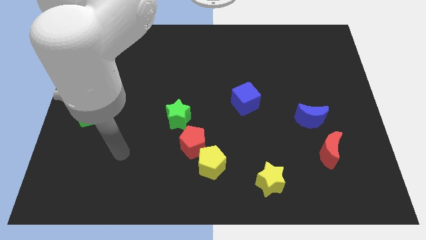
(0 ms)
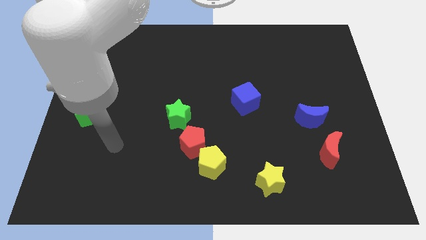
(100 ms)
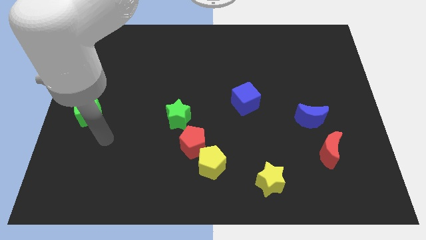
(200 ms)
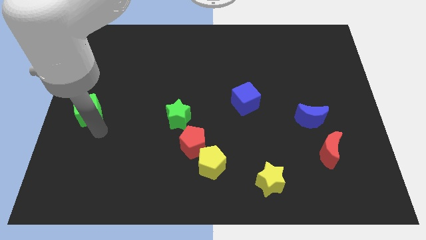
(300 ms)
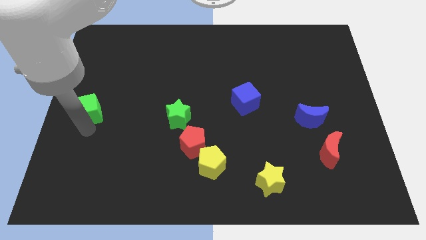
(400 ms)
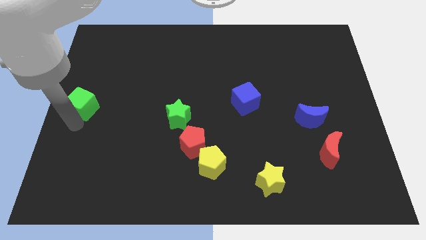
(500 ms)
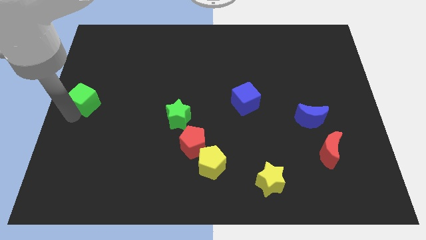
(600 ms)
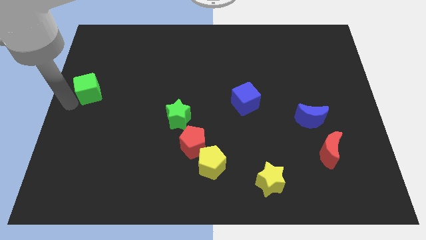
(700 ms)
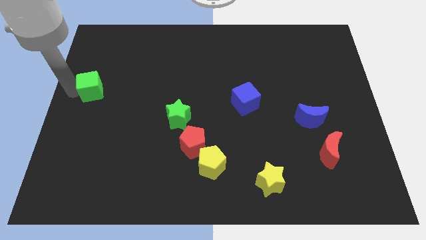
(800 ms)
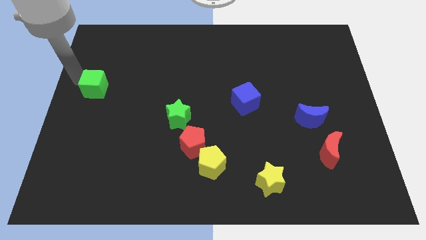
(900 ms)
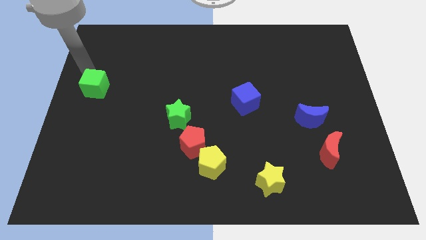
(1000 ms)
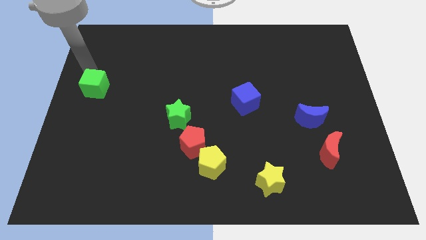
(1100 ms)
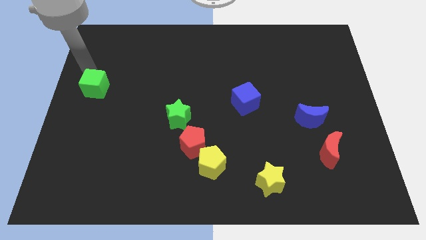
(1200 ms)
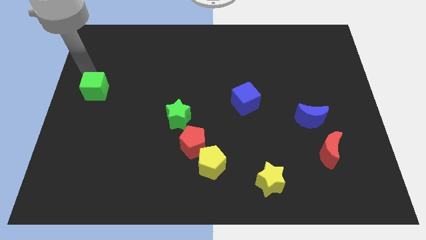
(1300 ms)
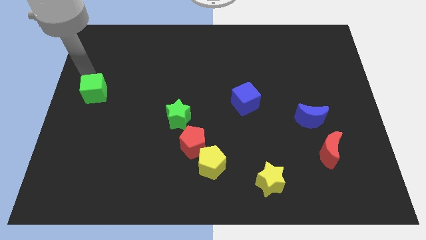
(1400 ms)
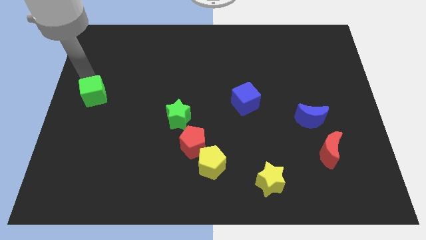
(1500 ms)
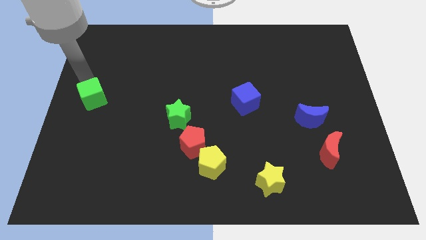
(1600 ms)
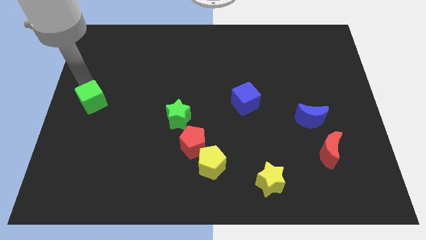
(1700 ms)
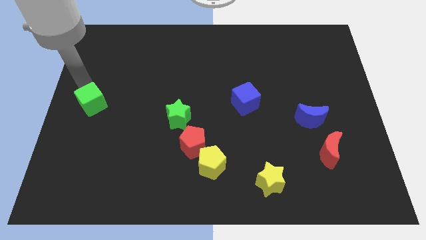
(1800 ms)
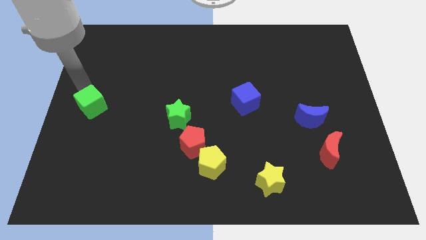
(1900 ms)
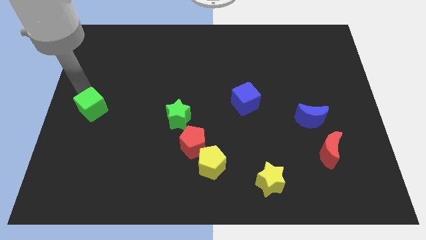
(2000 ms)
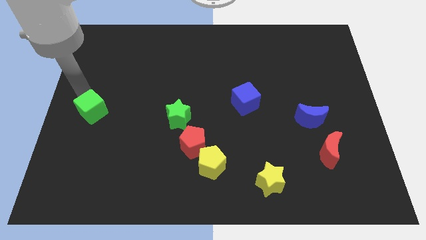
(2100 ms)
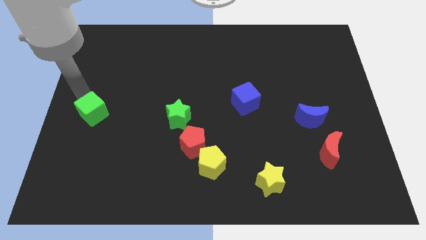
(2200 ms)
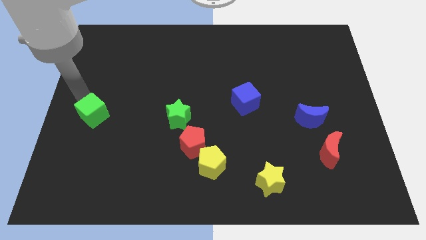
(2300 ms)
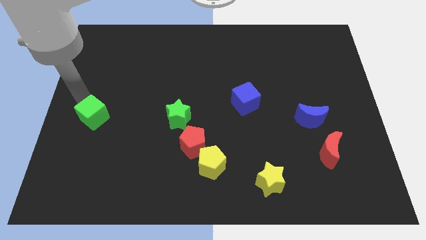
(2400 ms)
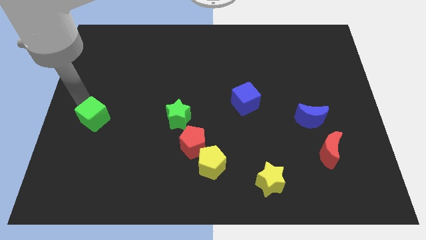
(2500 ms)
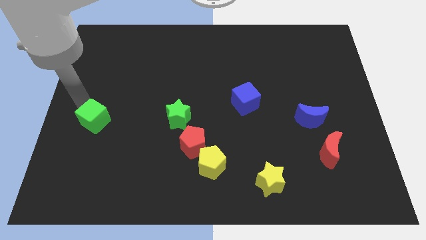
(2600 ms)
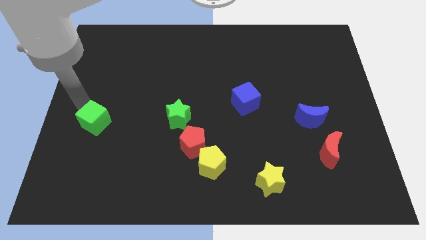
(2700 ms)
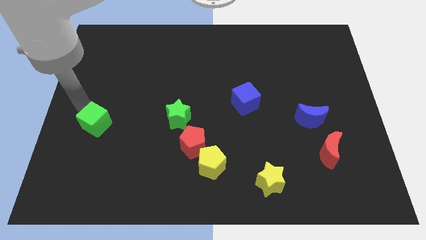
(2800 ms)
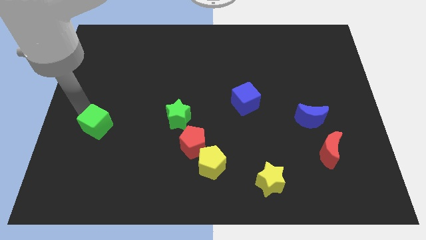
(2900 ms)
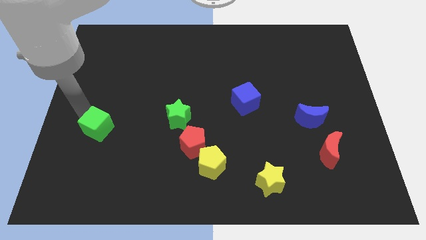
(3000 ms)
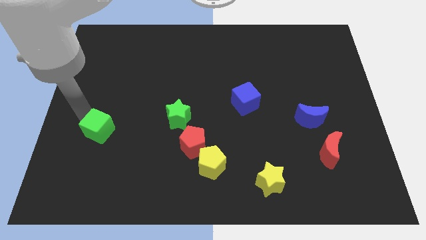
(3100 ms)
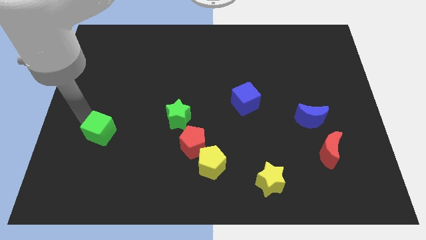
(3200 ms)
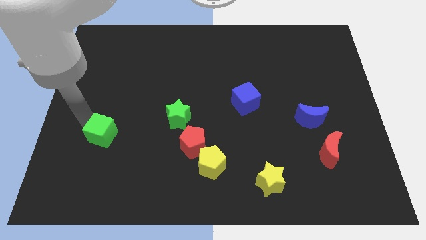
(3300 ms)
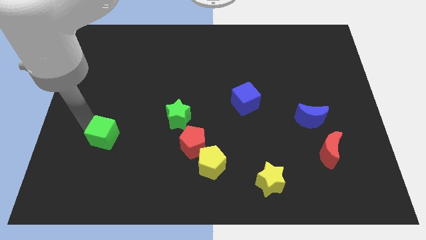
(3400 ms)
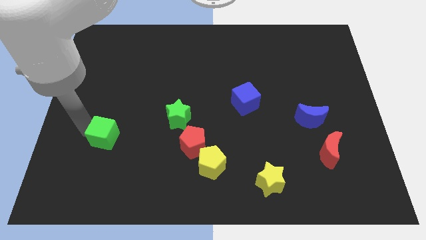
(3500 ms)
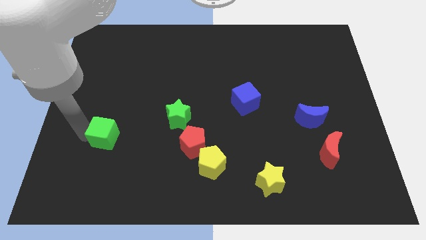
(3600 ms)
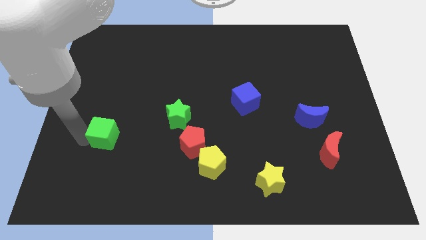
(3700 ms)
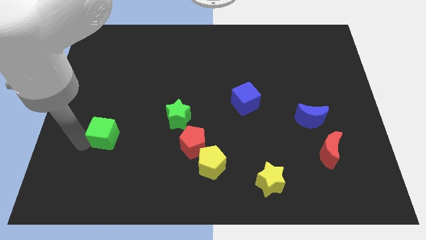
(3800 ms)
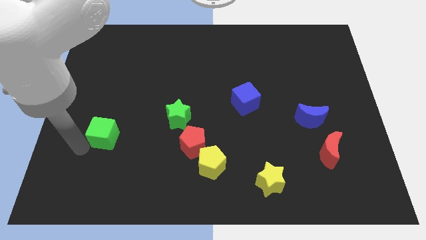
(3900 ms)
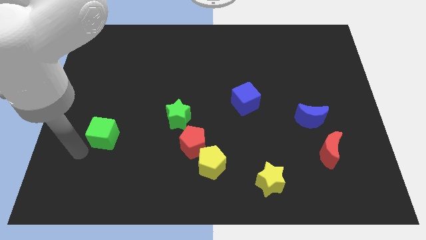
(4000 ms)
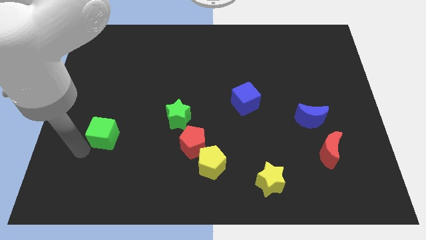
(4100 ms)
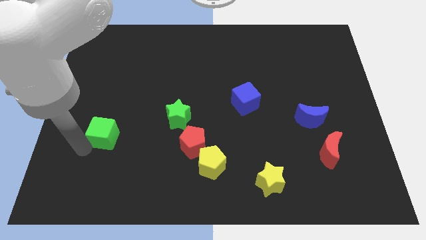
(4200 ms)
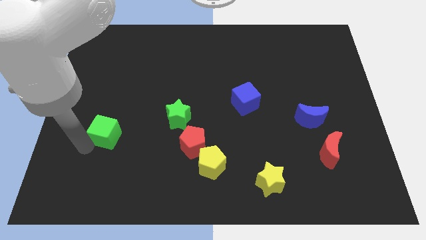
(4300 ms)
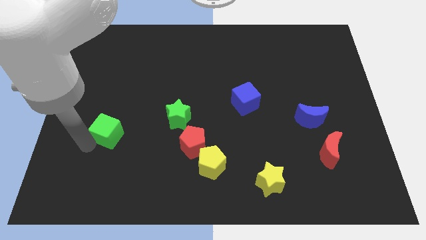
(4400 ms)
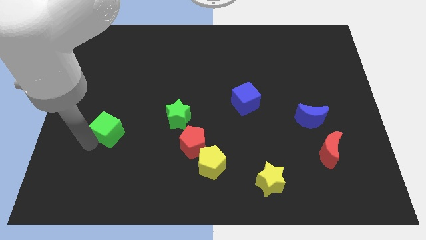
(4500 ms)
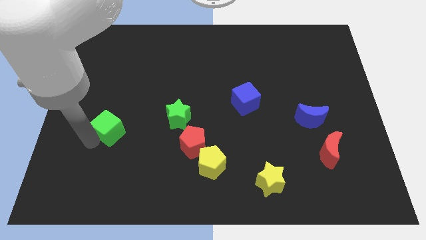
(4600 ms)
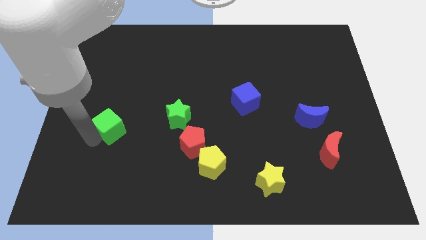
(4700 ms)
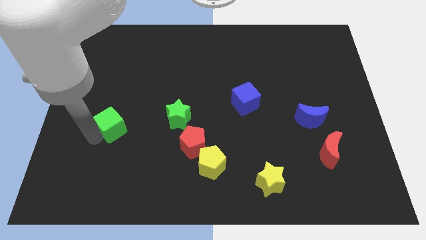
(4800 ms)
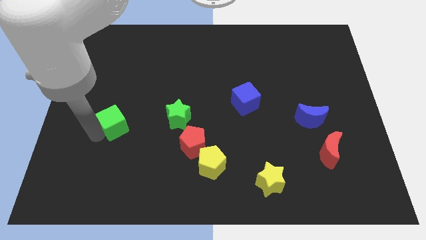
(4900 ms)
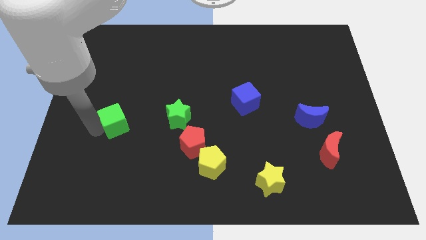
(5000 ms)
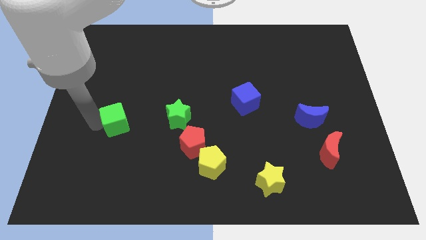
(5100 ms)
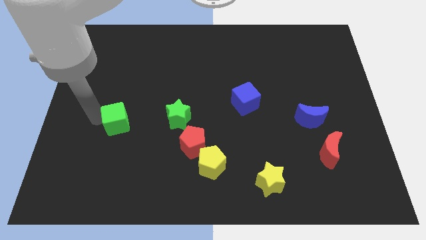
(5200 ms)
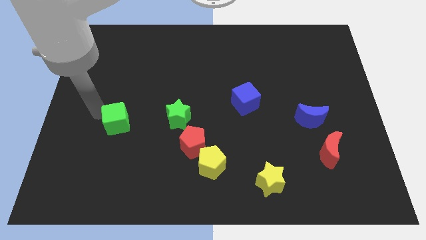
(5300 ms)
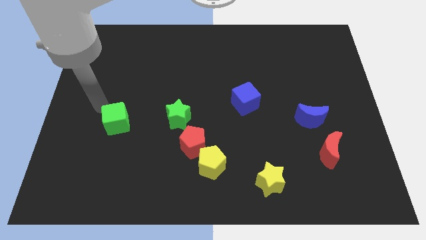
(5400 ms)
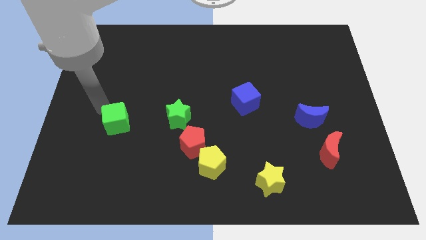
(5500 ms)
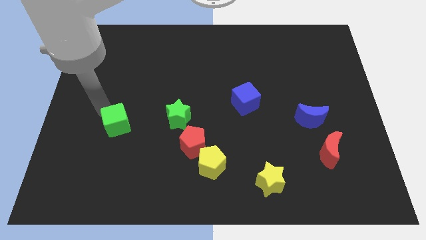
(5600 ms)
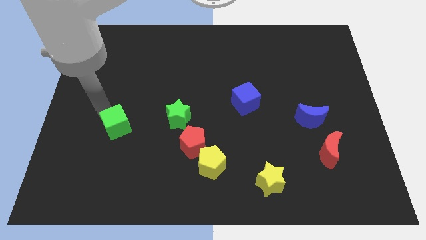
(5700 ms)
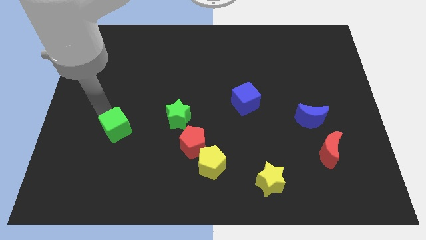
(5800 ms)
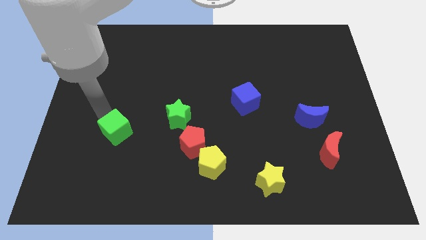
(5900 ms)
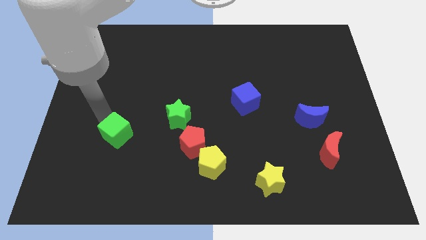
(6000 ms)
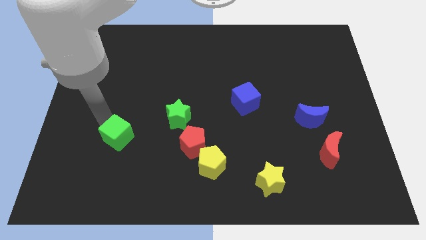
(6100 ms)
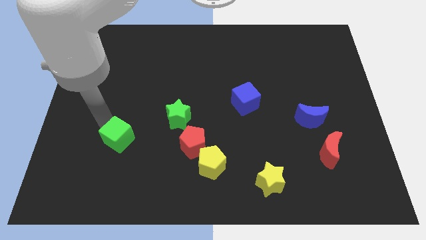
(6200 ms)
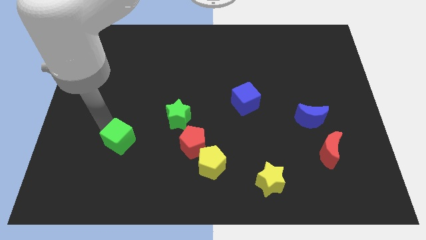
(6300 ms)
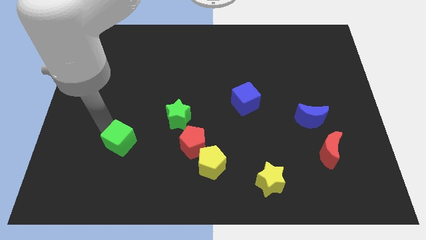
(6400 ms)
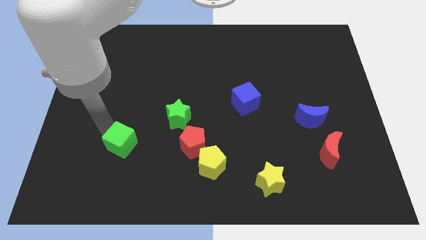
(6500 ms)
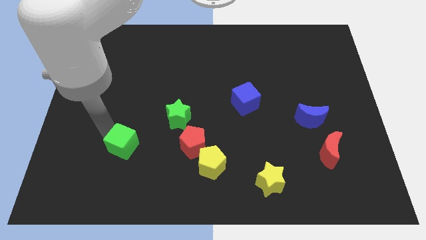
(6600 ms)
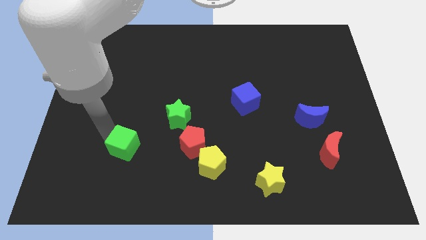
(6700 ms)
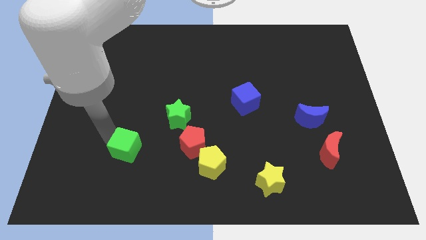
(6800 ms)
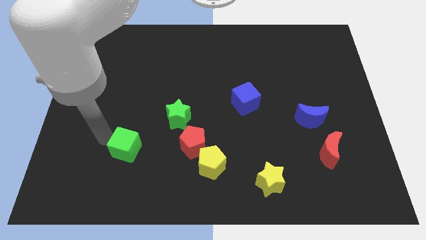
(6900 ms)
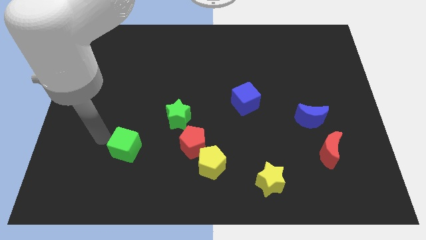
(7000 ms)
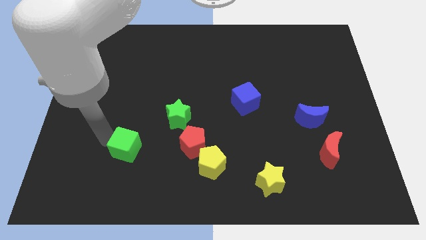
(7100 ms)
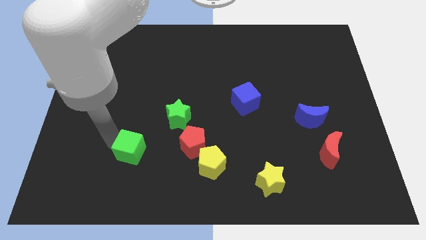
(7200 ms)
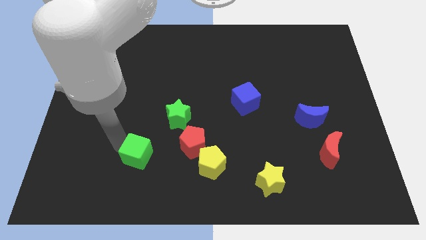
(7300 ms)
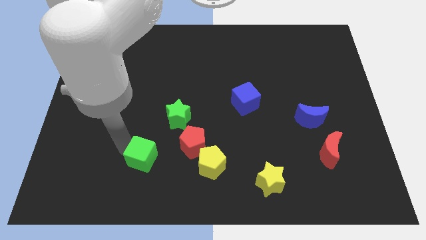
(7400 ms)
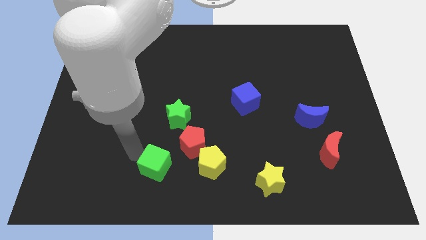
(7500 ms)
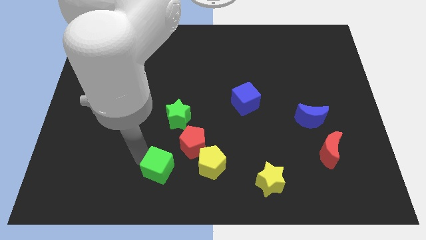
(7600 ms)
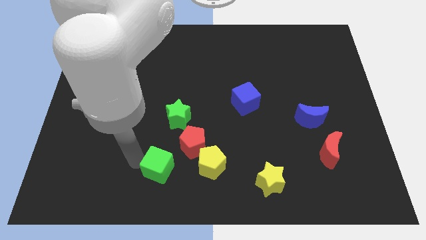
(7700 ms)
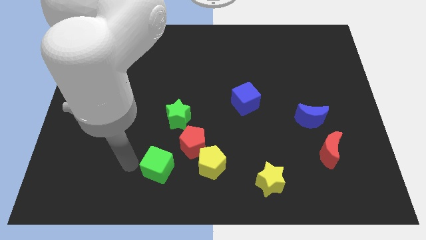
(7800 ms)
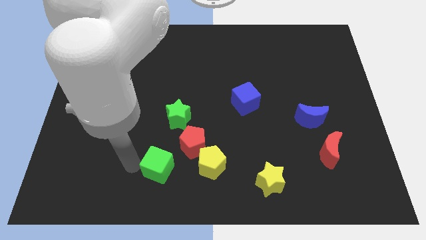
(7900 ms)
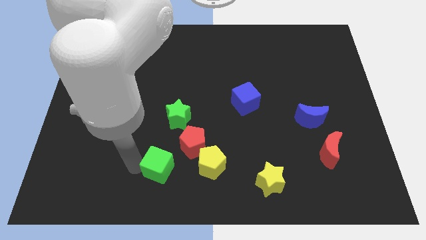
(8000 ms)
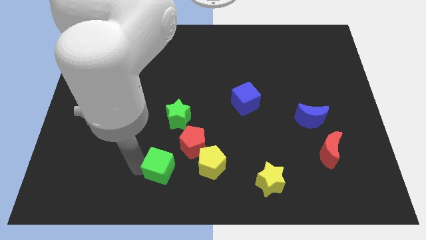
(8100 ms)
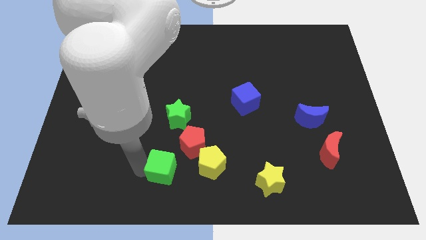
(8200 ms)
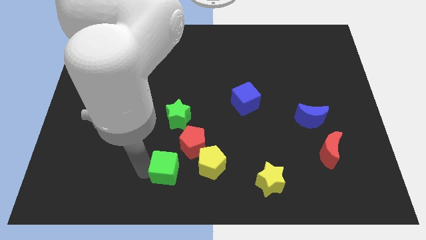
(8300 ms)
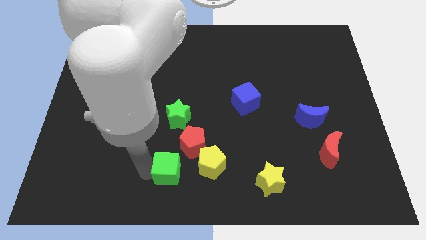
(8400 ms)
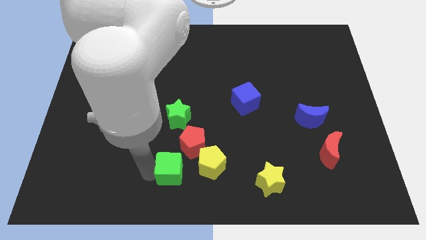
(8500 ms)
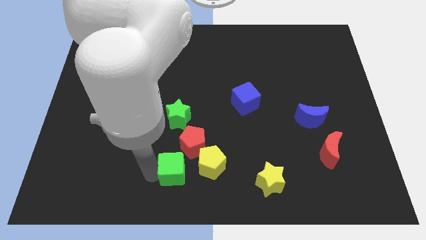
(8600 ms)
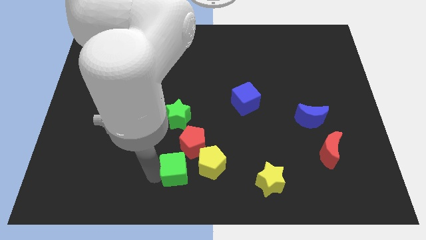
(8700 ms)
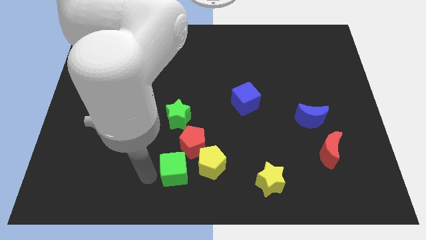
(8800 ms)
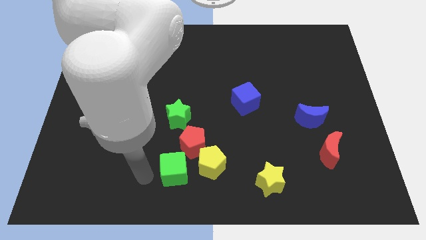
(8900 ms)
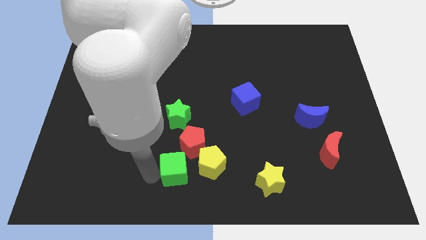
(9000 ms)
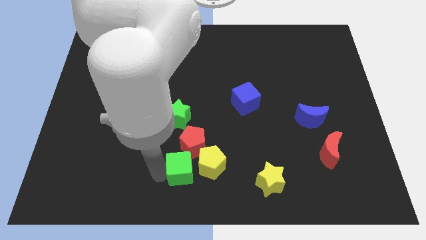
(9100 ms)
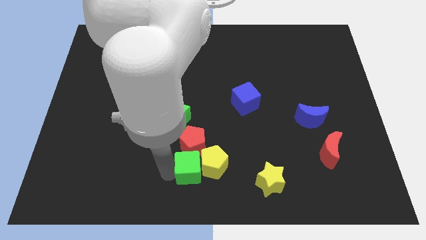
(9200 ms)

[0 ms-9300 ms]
push the green cube towards the yellow pentagon
